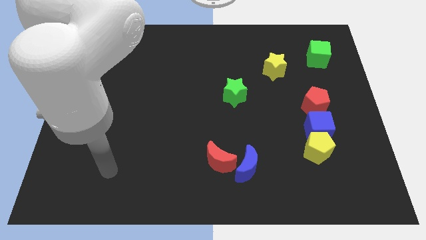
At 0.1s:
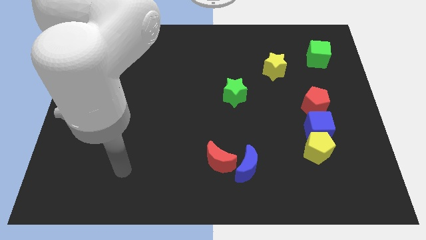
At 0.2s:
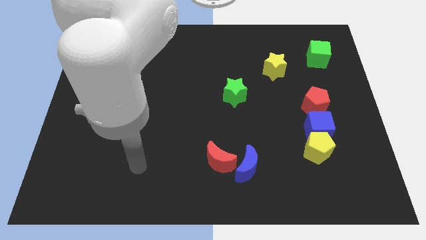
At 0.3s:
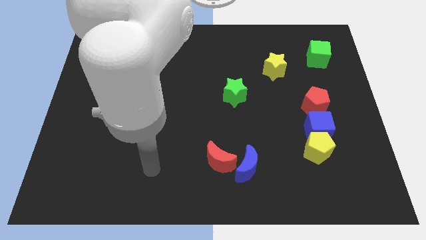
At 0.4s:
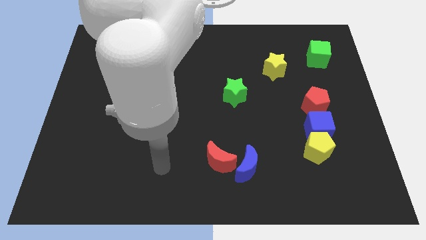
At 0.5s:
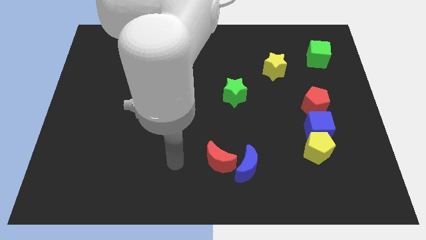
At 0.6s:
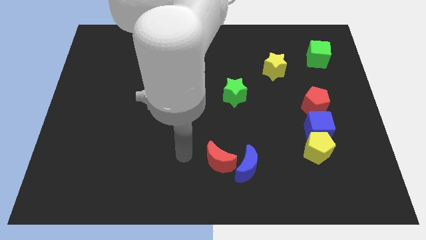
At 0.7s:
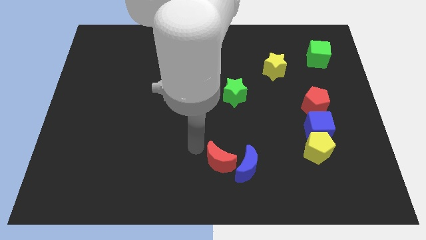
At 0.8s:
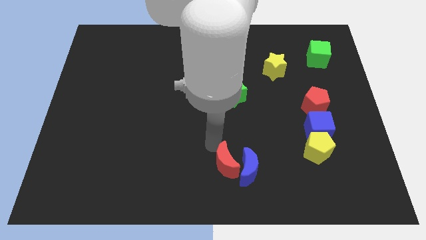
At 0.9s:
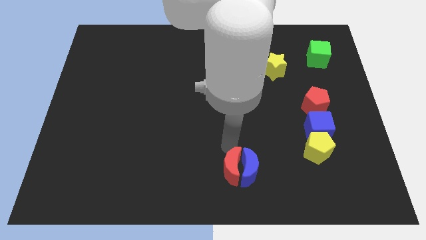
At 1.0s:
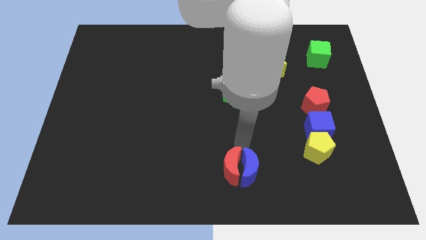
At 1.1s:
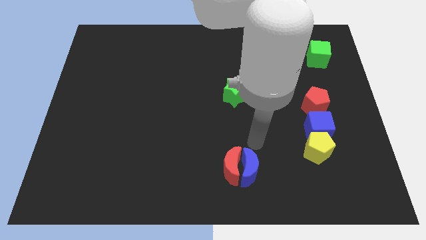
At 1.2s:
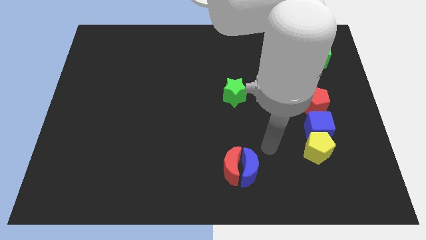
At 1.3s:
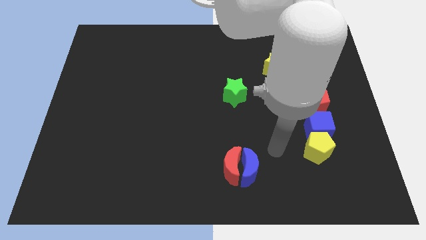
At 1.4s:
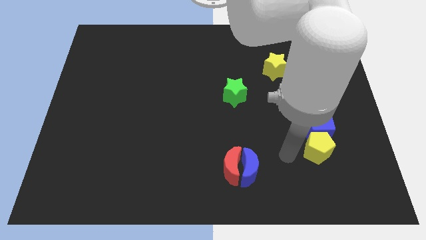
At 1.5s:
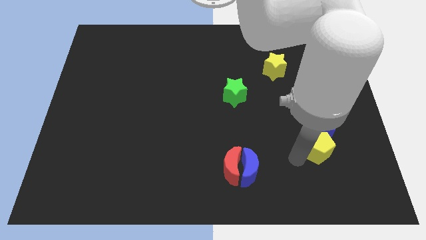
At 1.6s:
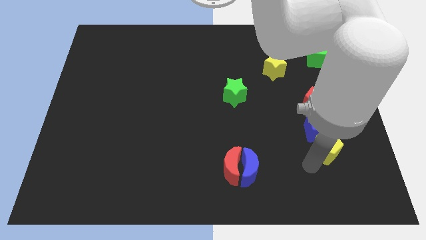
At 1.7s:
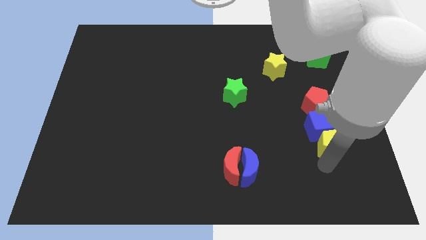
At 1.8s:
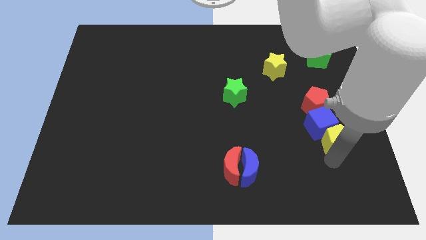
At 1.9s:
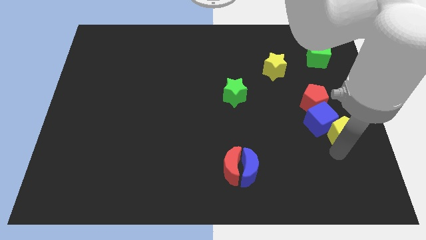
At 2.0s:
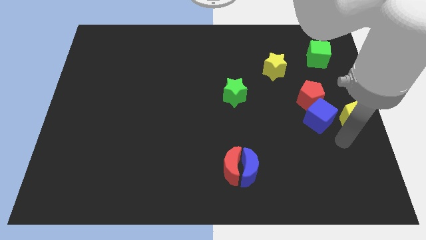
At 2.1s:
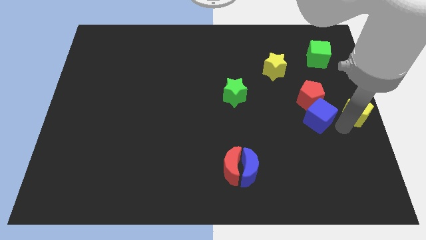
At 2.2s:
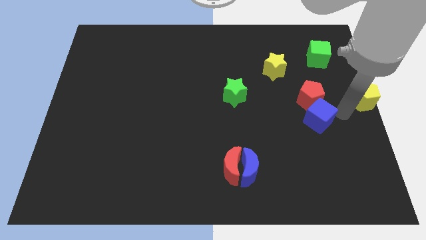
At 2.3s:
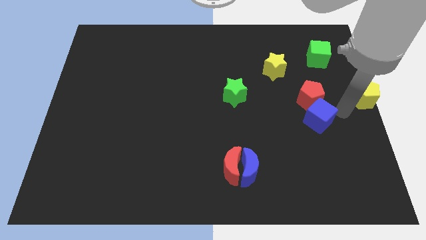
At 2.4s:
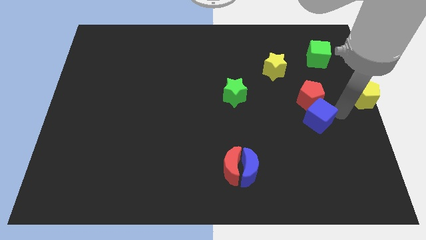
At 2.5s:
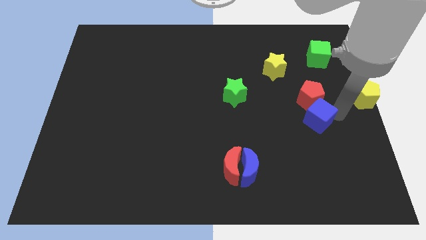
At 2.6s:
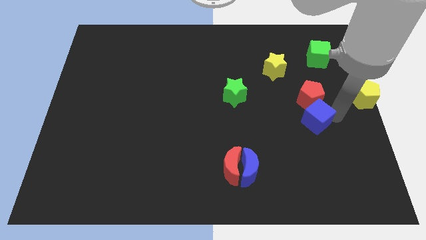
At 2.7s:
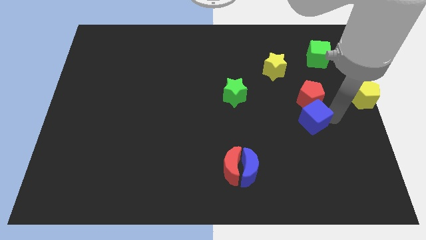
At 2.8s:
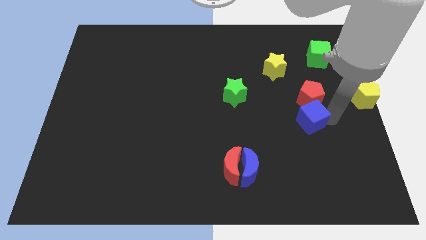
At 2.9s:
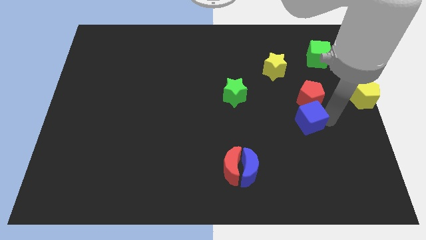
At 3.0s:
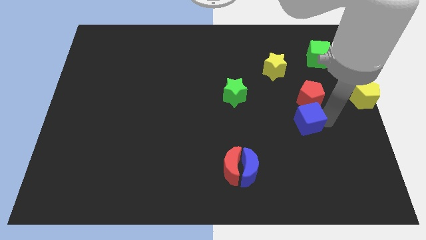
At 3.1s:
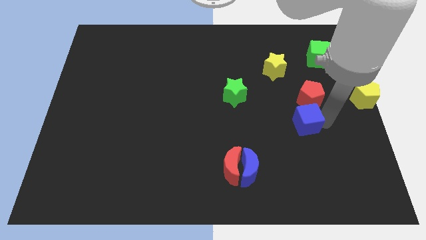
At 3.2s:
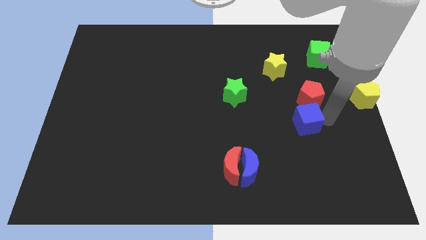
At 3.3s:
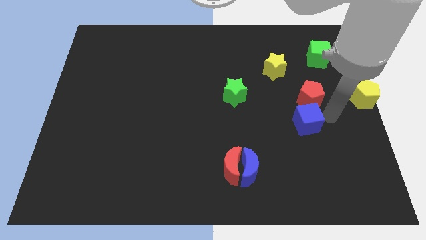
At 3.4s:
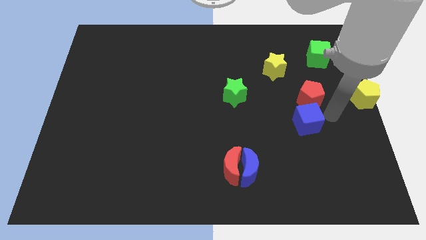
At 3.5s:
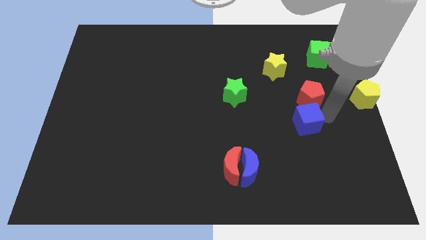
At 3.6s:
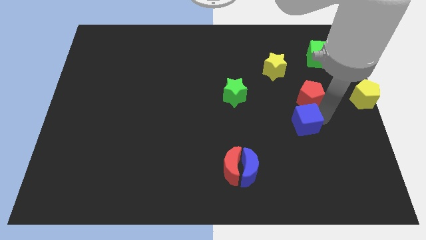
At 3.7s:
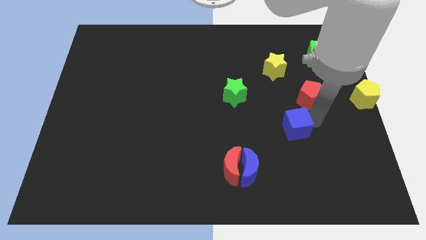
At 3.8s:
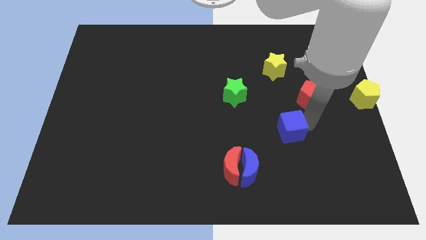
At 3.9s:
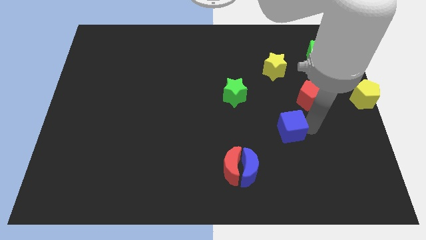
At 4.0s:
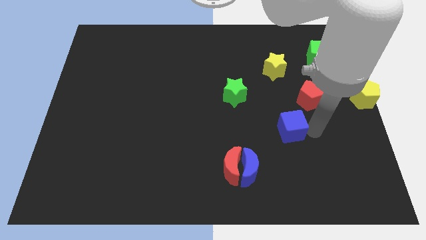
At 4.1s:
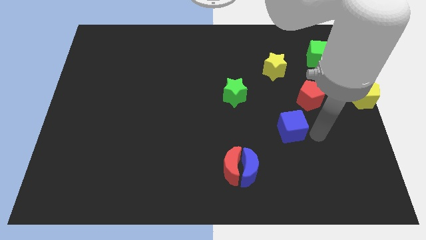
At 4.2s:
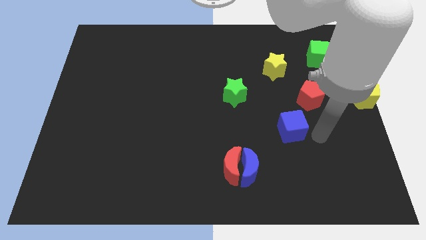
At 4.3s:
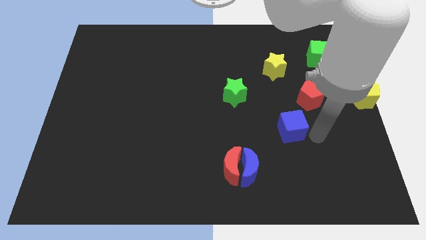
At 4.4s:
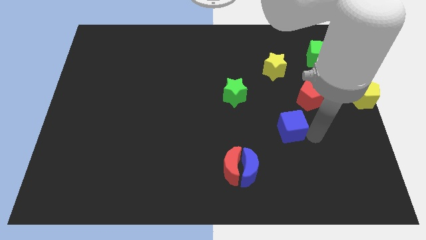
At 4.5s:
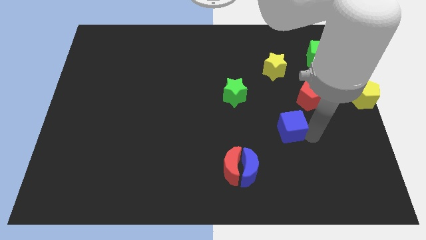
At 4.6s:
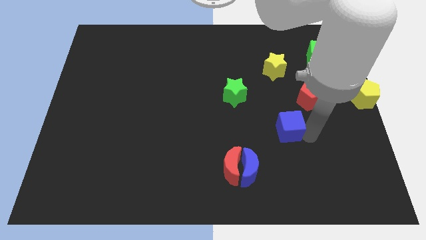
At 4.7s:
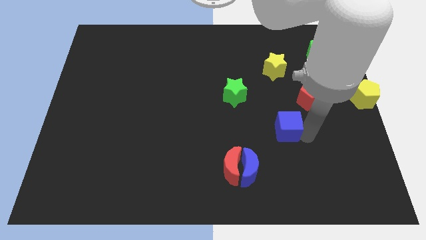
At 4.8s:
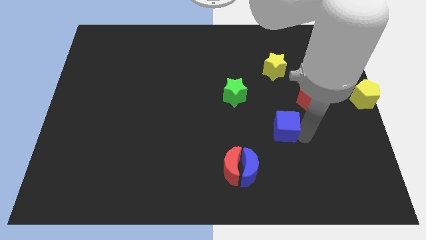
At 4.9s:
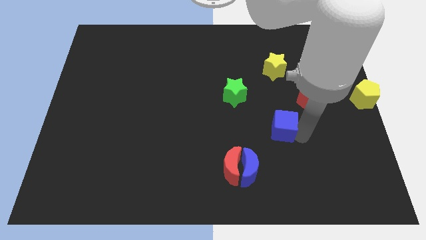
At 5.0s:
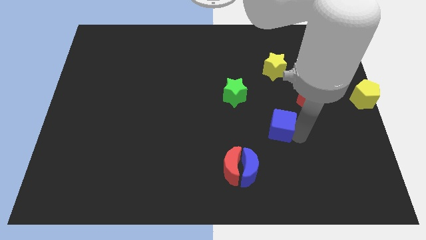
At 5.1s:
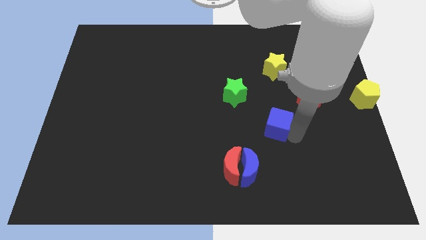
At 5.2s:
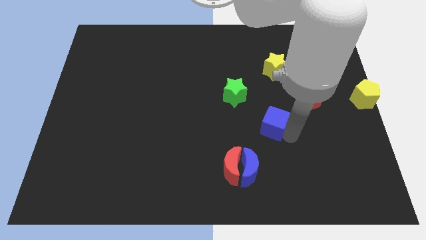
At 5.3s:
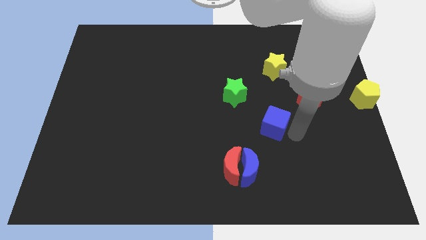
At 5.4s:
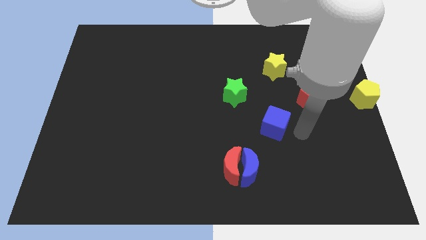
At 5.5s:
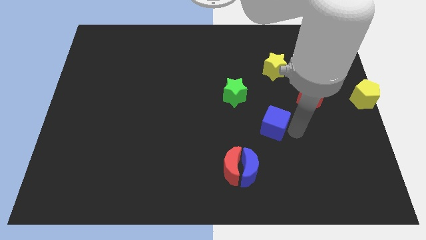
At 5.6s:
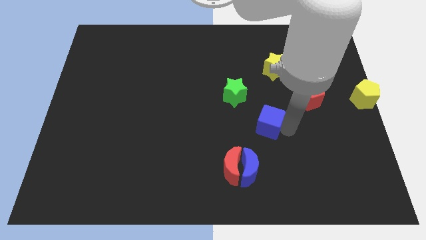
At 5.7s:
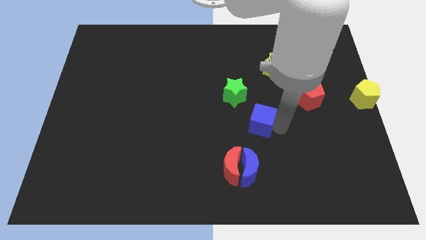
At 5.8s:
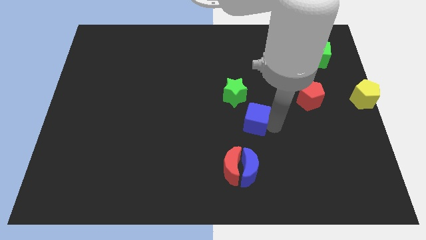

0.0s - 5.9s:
move the blue cube to the middle of the board
